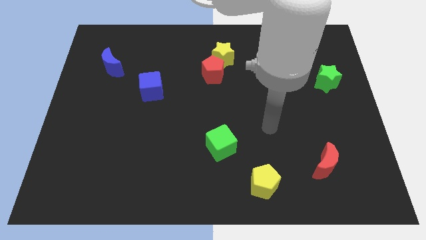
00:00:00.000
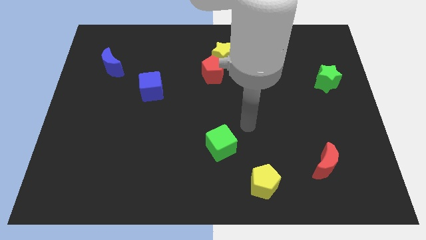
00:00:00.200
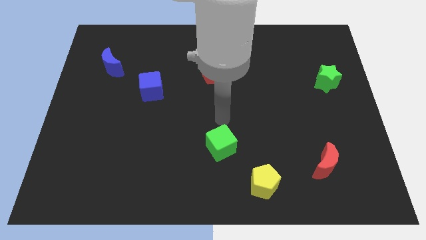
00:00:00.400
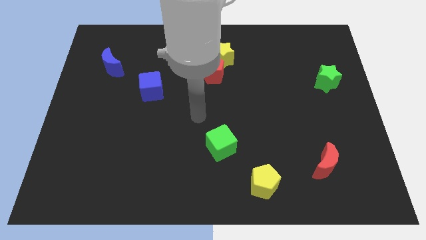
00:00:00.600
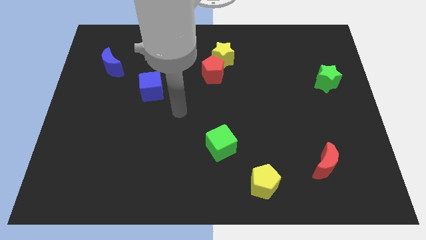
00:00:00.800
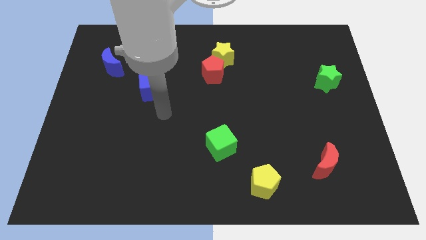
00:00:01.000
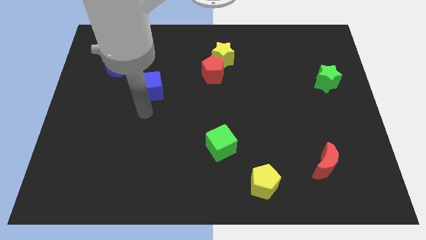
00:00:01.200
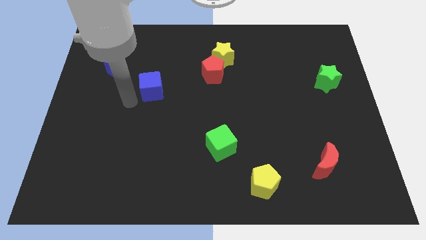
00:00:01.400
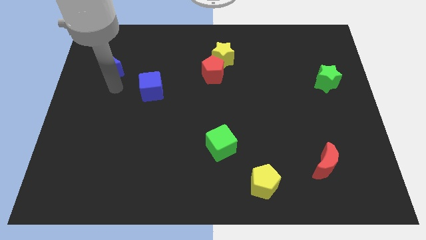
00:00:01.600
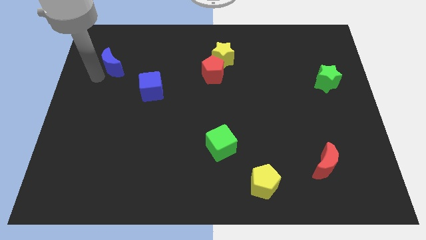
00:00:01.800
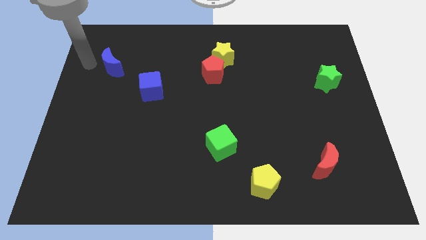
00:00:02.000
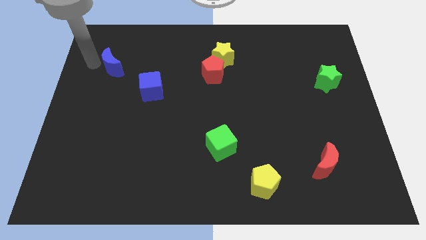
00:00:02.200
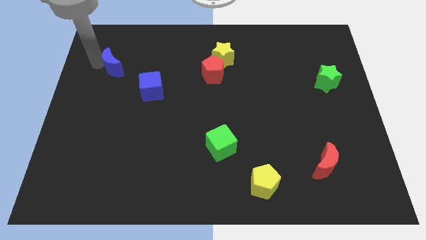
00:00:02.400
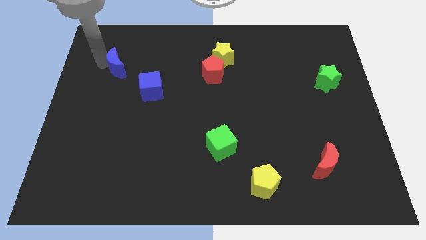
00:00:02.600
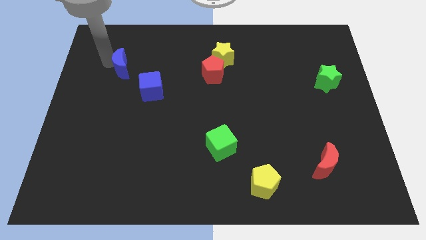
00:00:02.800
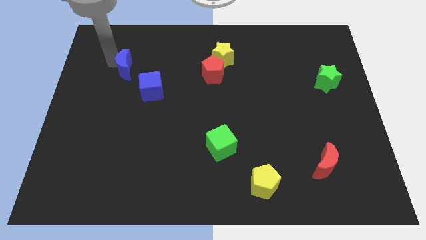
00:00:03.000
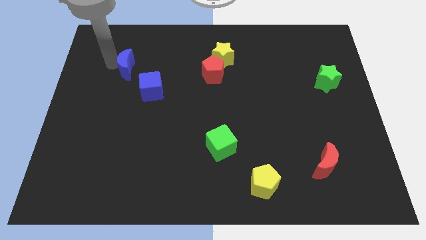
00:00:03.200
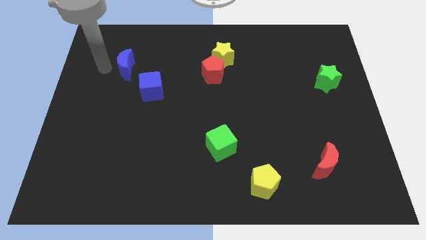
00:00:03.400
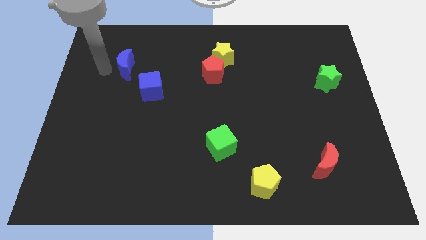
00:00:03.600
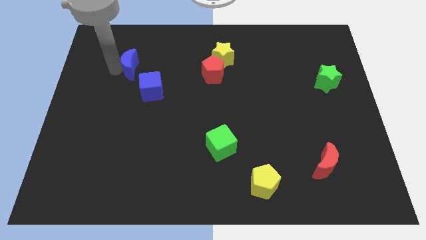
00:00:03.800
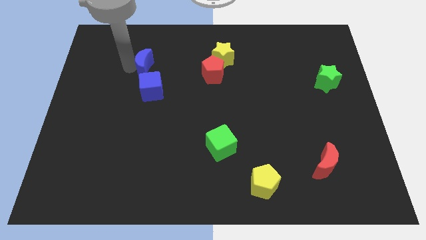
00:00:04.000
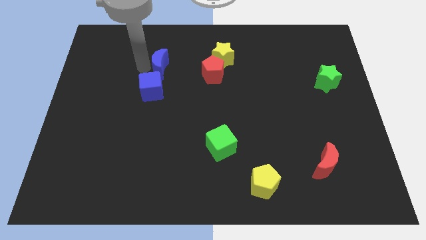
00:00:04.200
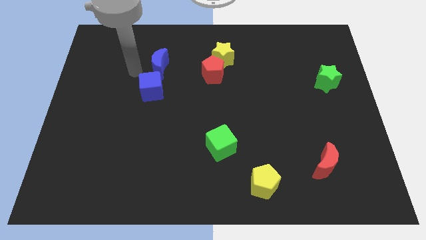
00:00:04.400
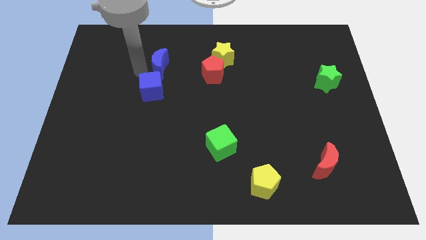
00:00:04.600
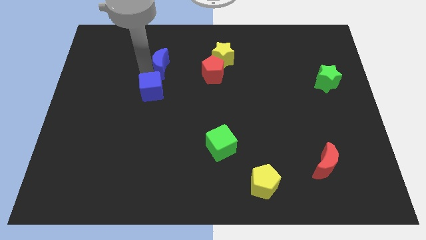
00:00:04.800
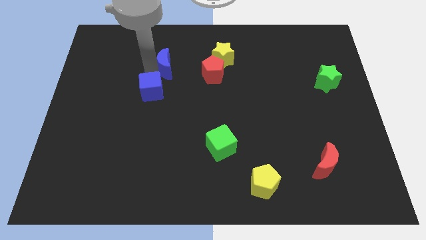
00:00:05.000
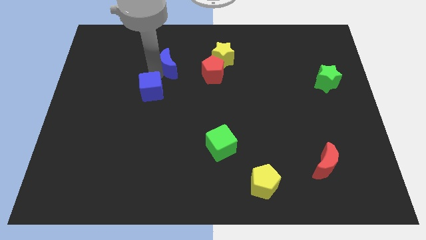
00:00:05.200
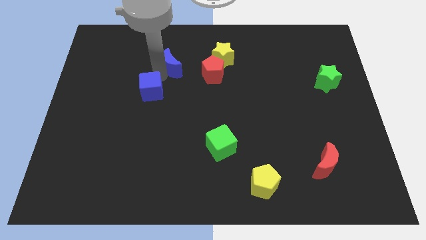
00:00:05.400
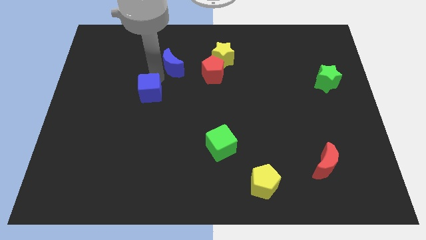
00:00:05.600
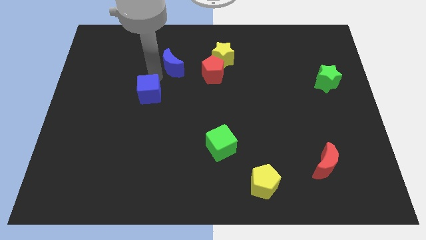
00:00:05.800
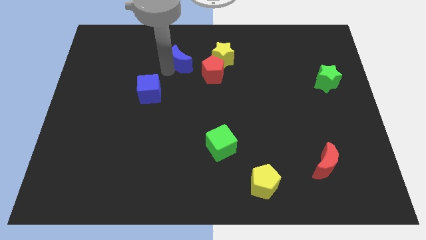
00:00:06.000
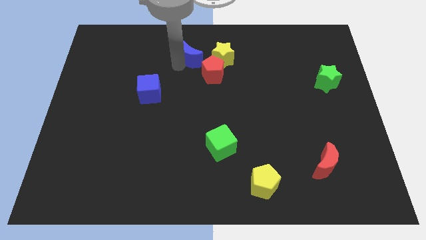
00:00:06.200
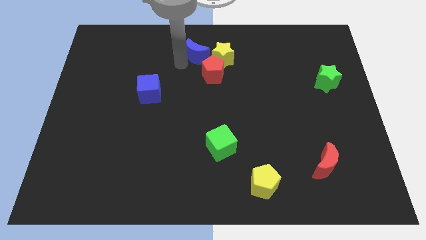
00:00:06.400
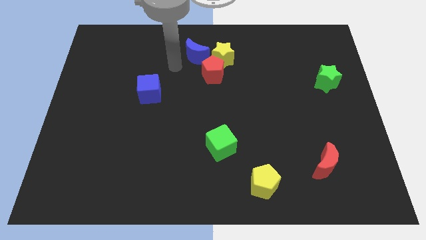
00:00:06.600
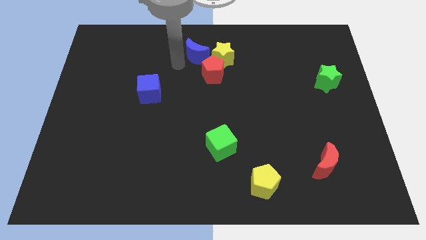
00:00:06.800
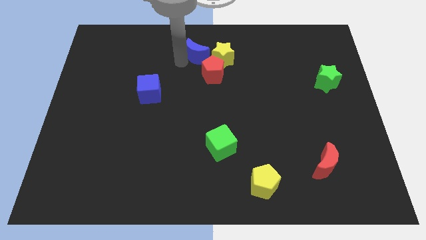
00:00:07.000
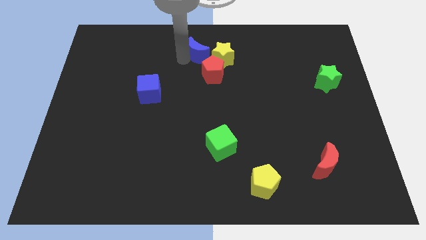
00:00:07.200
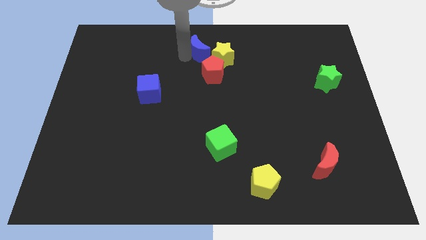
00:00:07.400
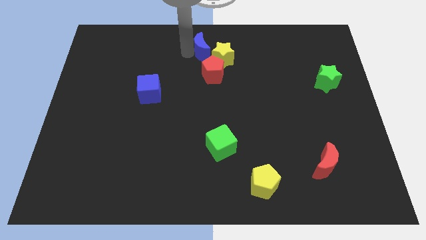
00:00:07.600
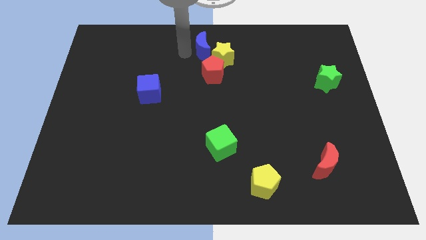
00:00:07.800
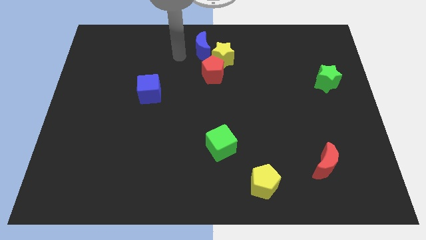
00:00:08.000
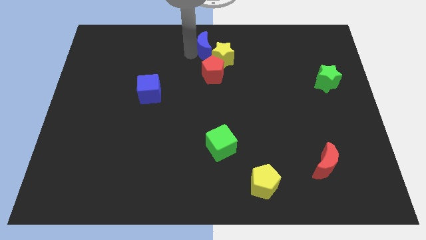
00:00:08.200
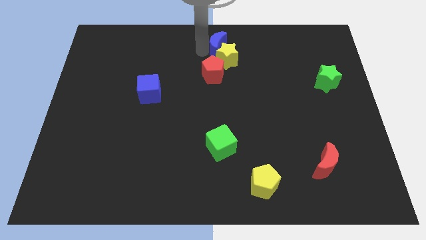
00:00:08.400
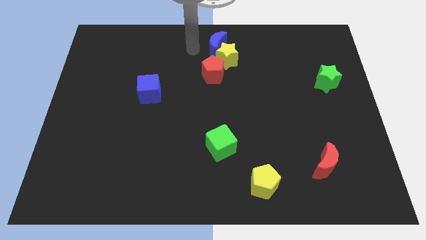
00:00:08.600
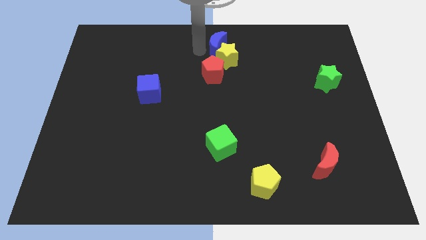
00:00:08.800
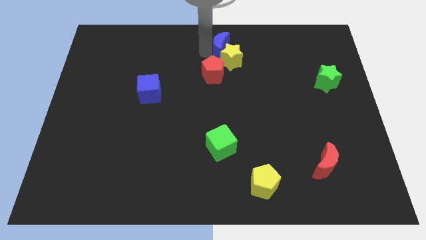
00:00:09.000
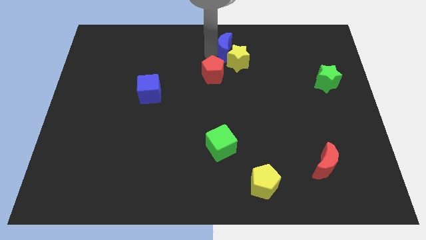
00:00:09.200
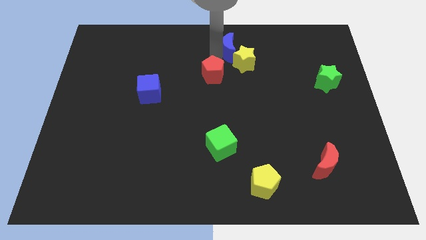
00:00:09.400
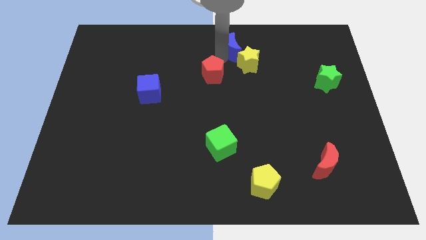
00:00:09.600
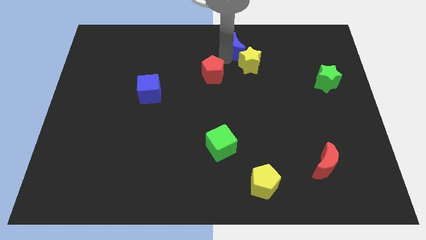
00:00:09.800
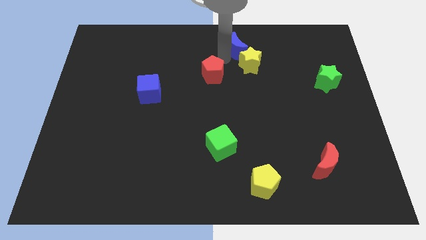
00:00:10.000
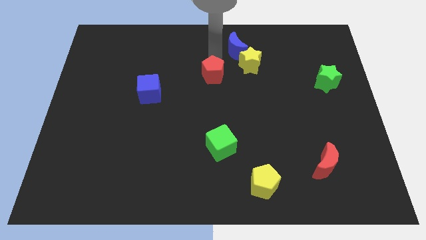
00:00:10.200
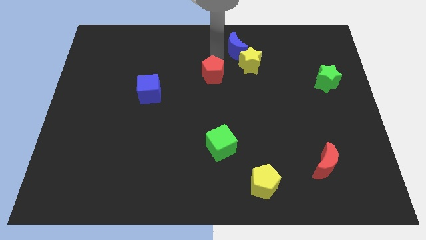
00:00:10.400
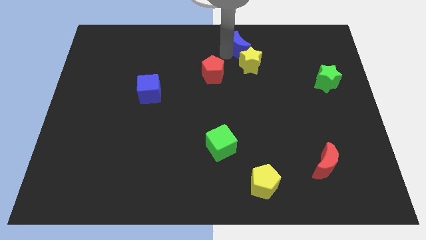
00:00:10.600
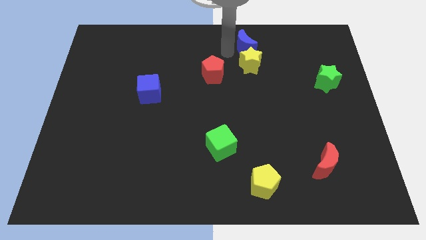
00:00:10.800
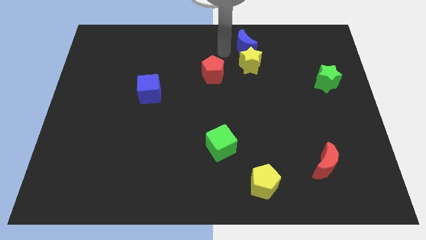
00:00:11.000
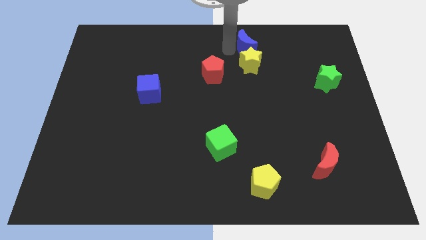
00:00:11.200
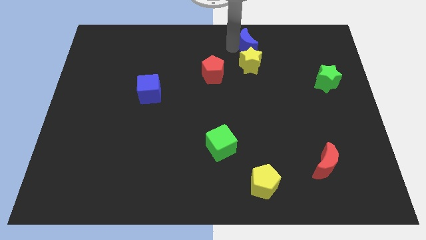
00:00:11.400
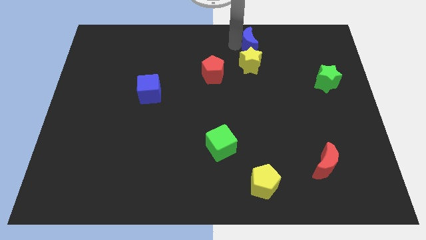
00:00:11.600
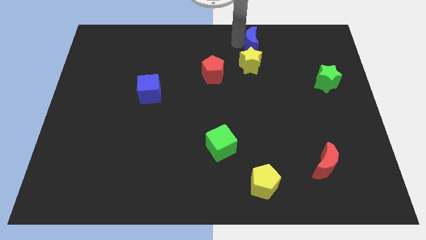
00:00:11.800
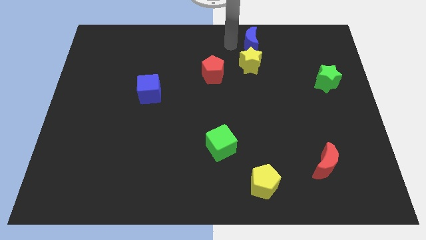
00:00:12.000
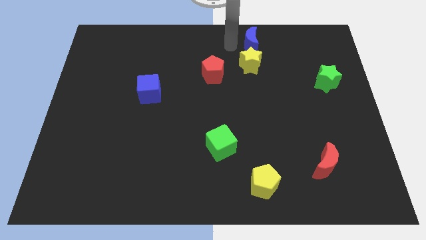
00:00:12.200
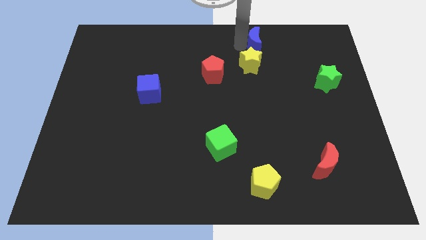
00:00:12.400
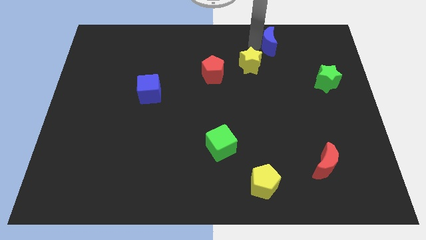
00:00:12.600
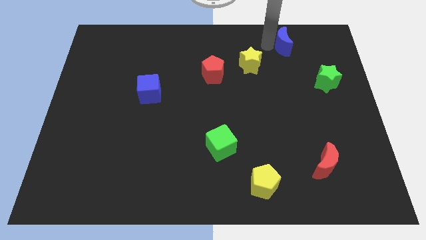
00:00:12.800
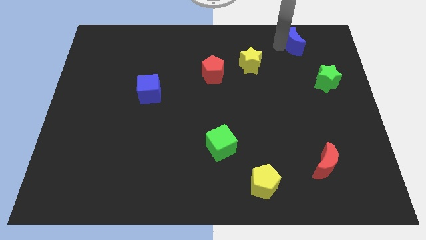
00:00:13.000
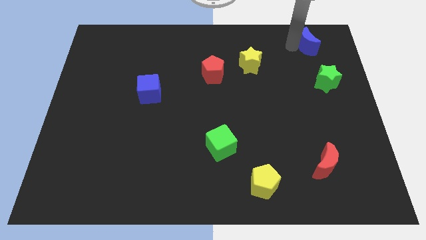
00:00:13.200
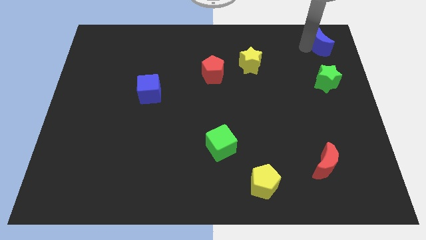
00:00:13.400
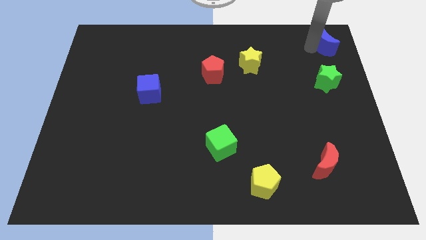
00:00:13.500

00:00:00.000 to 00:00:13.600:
slide the blue moon to the top right
